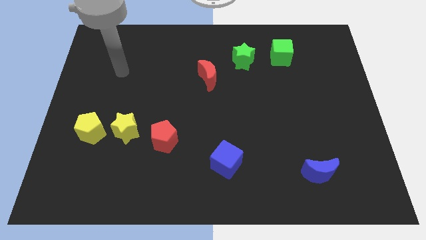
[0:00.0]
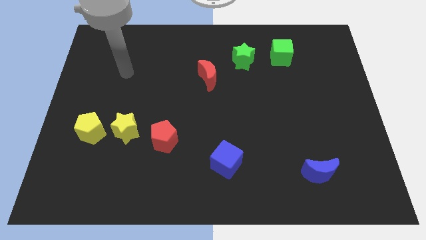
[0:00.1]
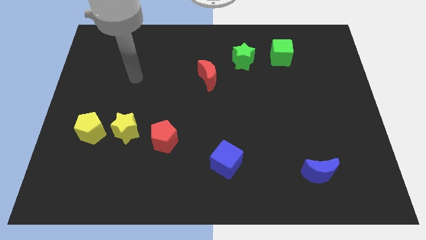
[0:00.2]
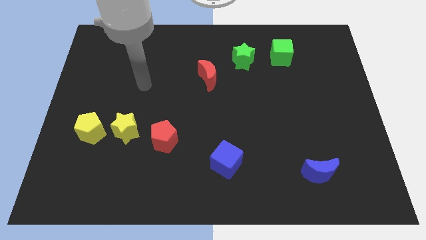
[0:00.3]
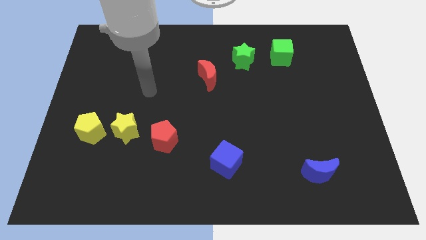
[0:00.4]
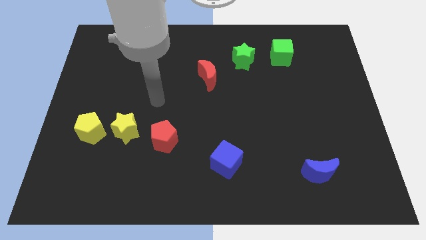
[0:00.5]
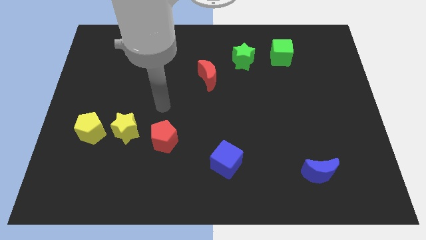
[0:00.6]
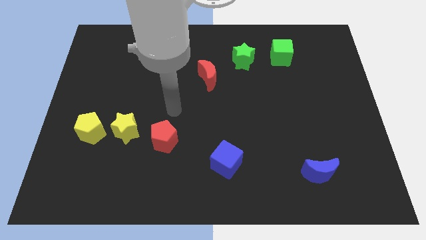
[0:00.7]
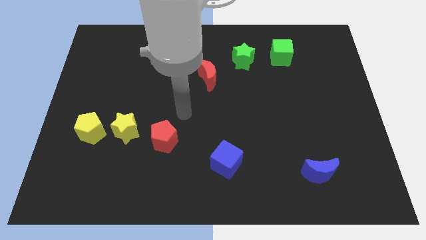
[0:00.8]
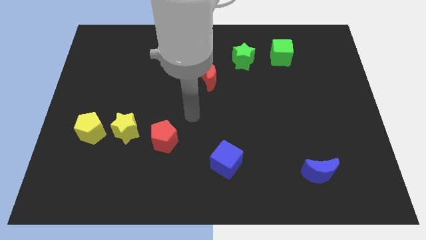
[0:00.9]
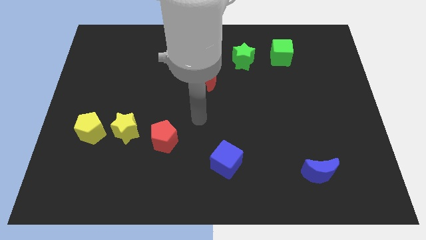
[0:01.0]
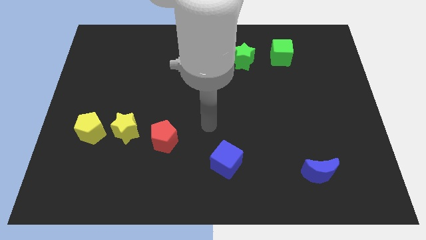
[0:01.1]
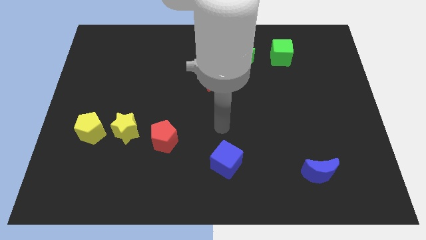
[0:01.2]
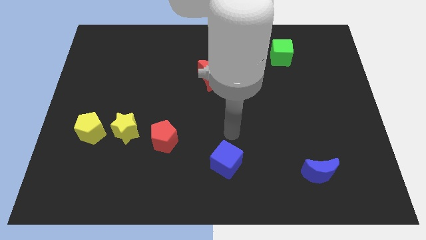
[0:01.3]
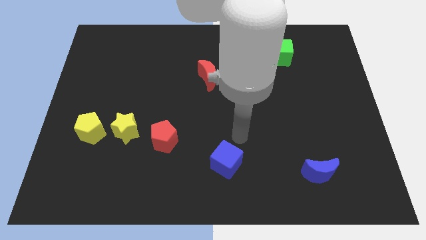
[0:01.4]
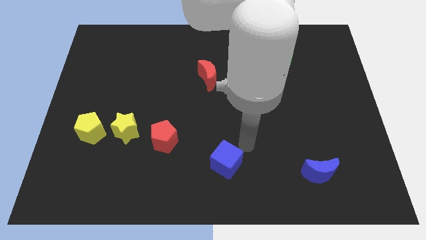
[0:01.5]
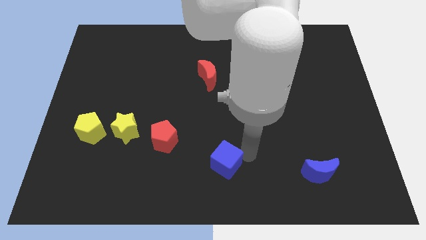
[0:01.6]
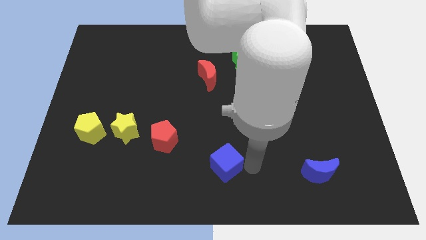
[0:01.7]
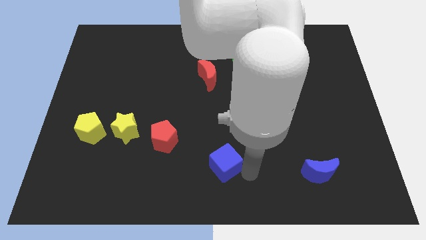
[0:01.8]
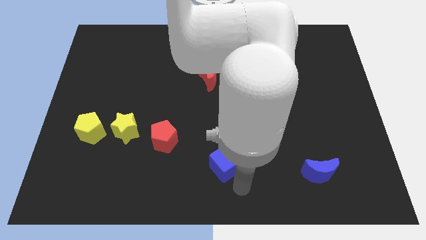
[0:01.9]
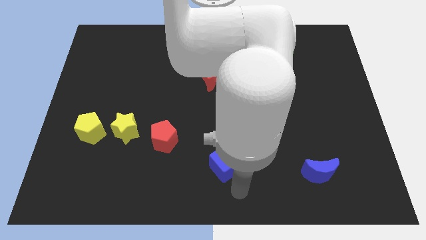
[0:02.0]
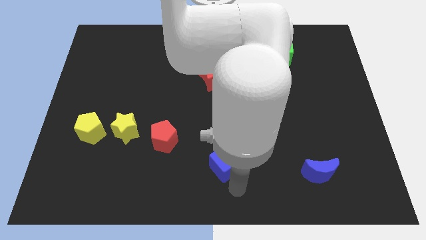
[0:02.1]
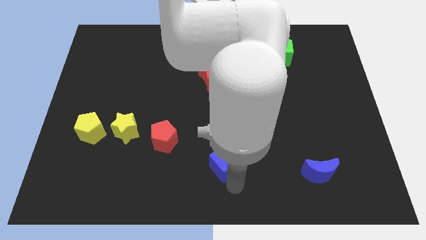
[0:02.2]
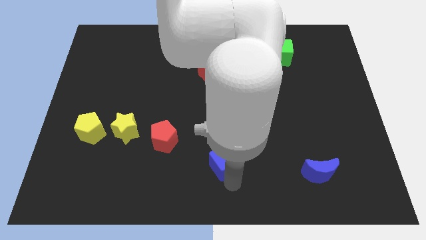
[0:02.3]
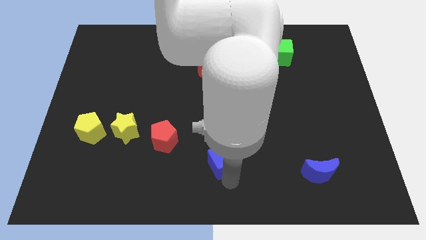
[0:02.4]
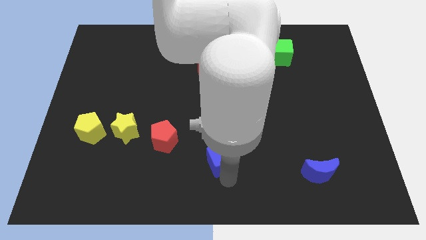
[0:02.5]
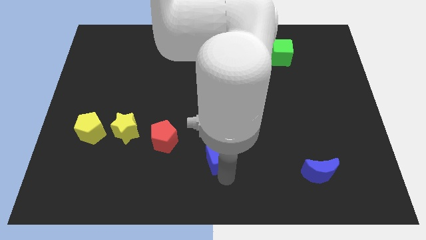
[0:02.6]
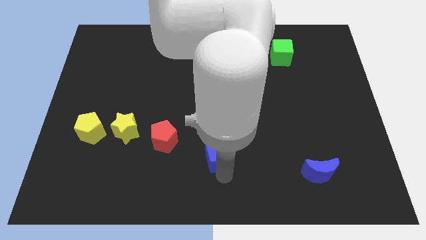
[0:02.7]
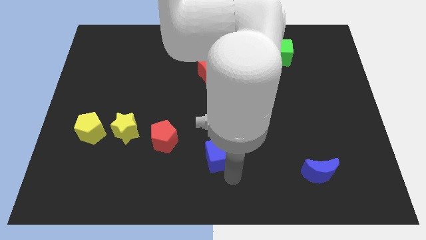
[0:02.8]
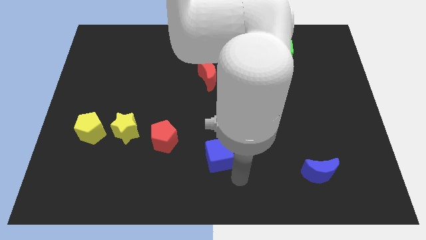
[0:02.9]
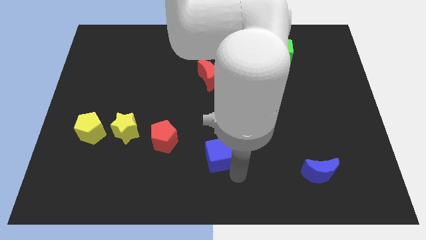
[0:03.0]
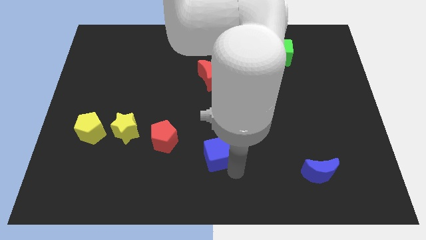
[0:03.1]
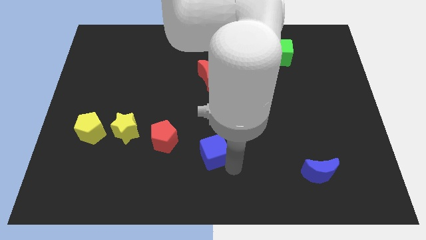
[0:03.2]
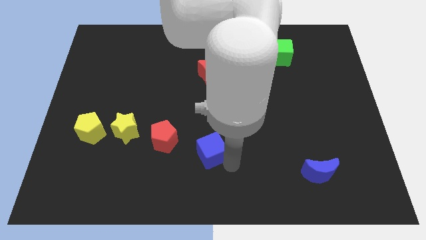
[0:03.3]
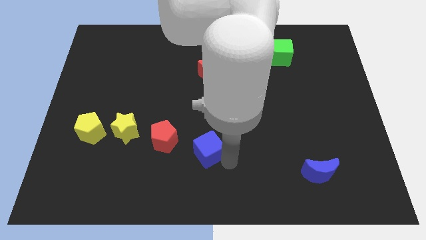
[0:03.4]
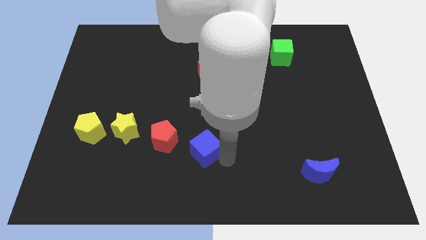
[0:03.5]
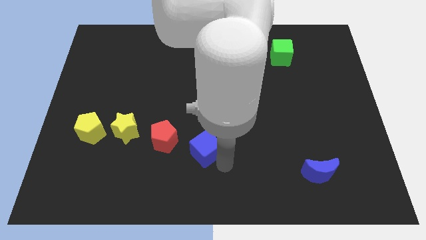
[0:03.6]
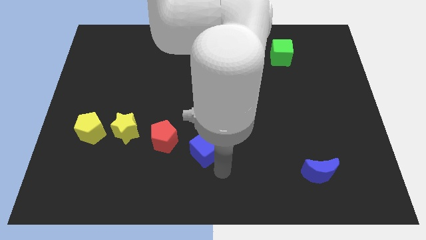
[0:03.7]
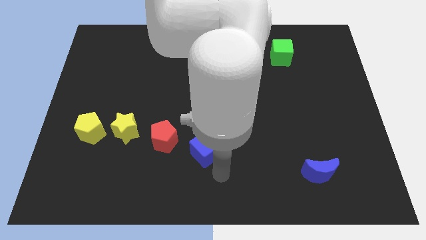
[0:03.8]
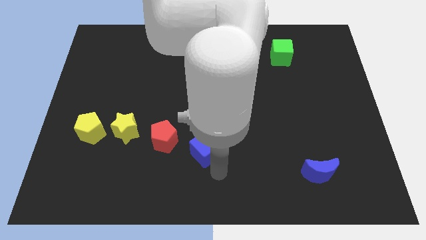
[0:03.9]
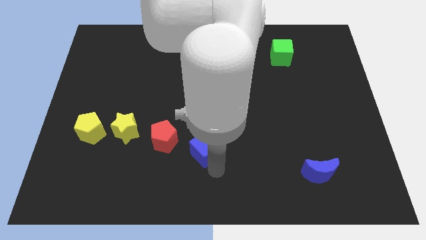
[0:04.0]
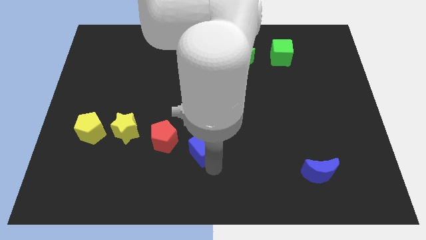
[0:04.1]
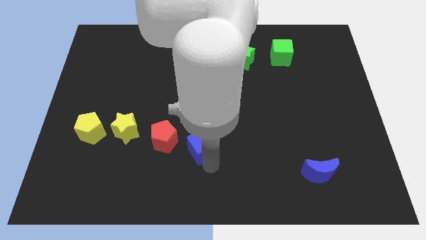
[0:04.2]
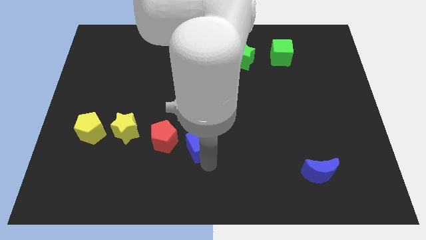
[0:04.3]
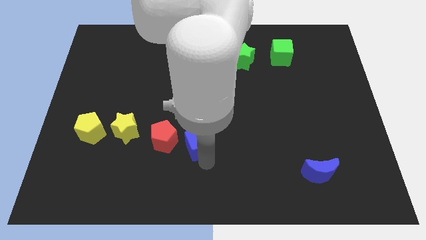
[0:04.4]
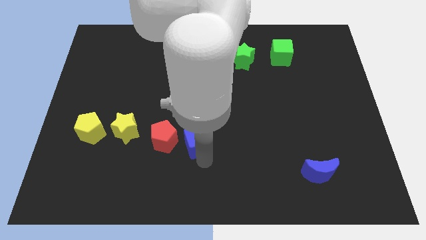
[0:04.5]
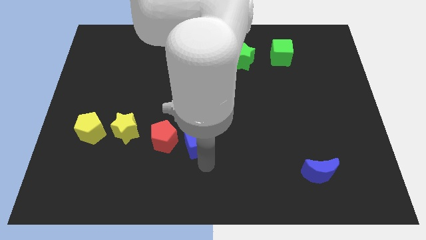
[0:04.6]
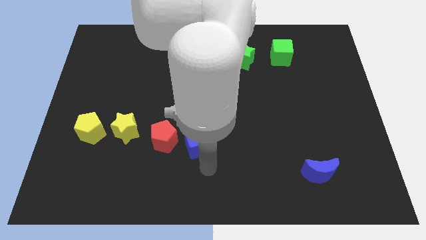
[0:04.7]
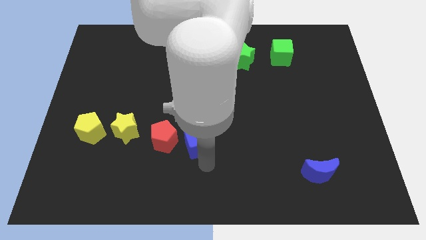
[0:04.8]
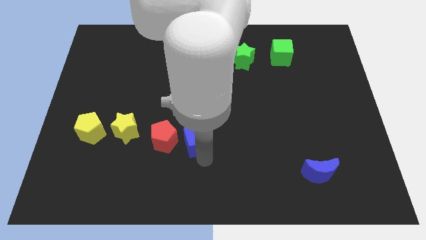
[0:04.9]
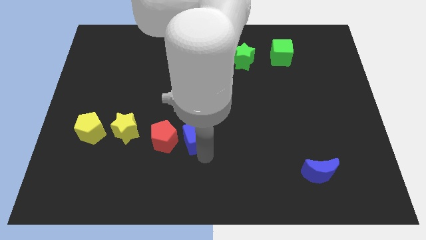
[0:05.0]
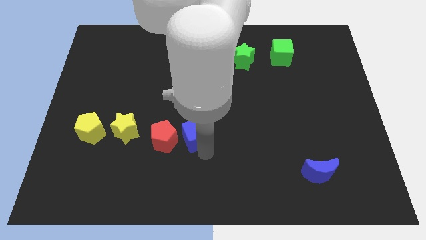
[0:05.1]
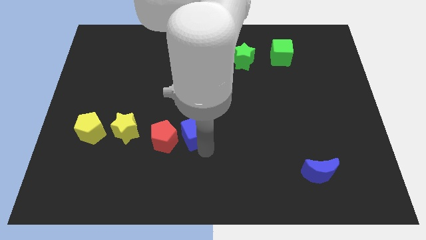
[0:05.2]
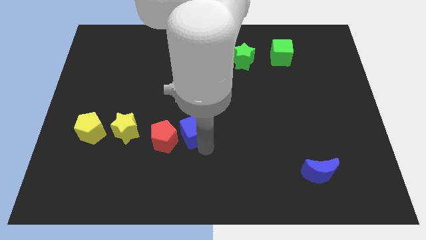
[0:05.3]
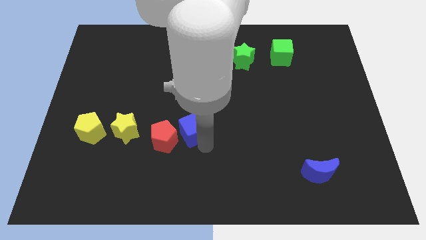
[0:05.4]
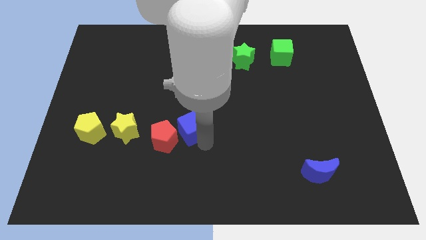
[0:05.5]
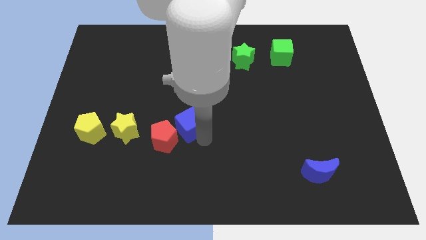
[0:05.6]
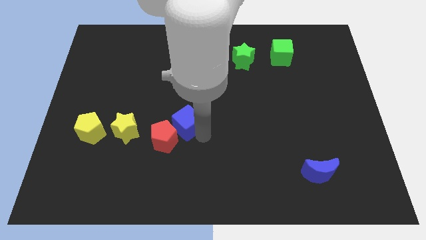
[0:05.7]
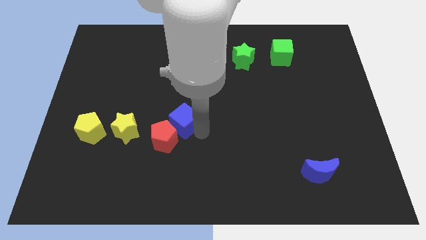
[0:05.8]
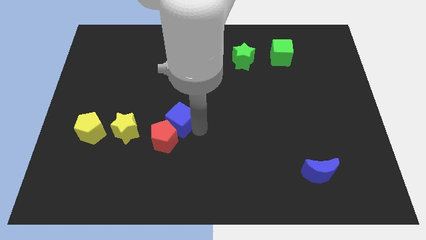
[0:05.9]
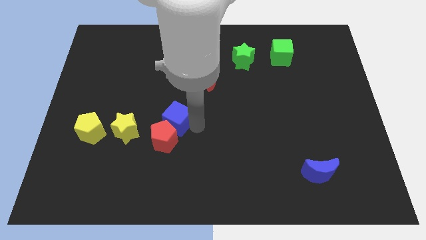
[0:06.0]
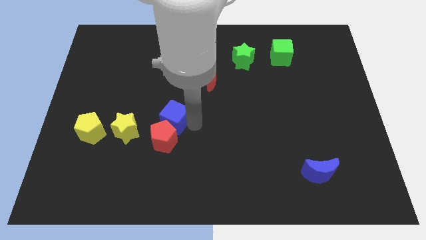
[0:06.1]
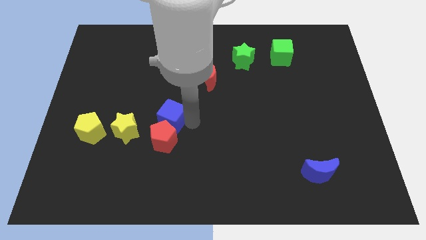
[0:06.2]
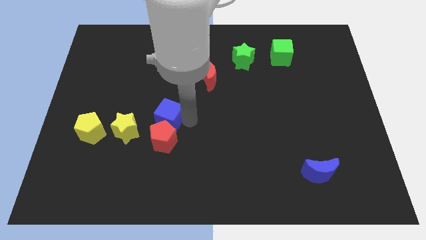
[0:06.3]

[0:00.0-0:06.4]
move the blue cube to the top right side of the yellow star

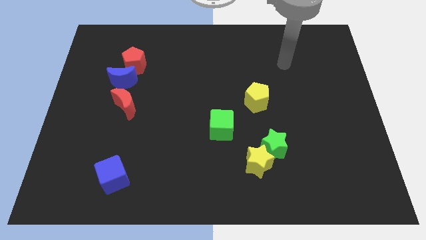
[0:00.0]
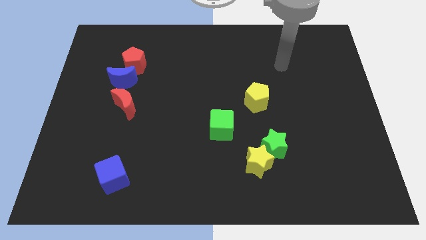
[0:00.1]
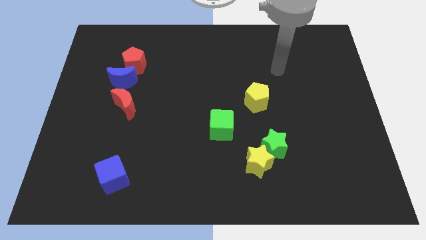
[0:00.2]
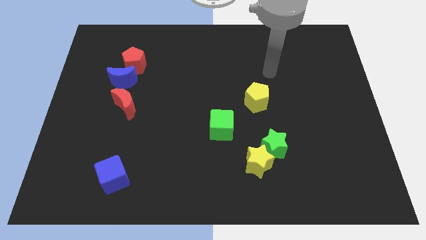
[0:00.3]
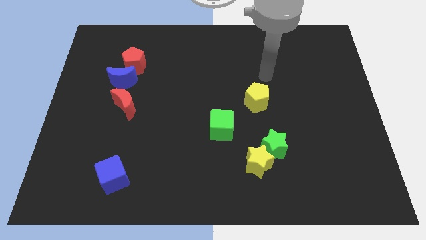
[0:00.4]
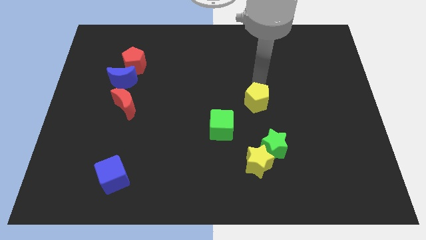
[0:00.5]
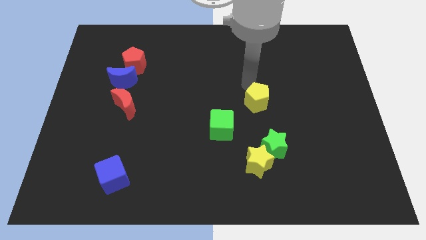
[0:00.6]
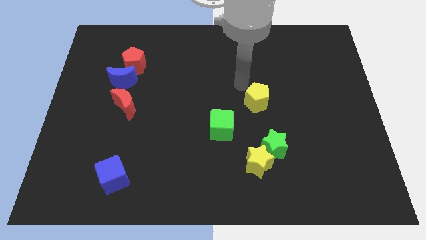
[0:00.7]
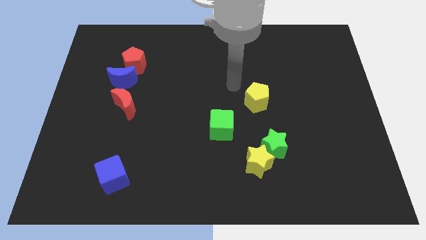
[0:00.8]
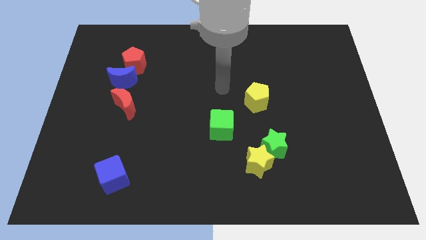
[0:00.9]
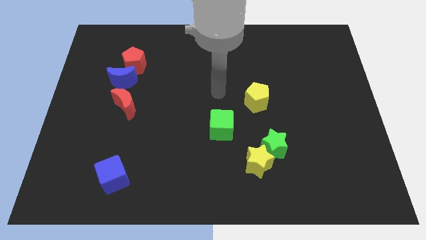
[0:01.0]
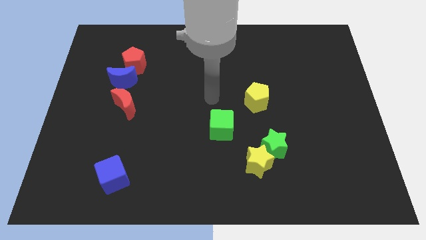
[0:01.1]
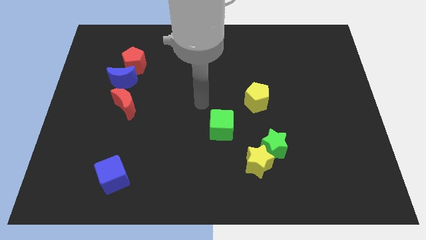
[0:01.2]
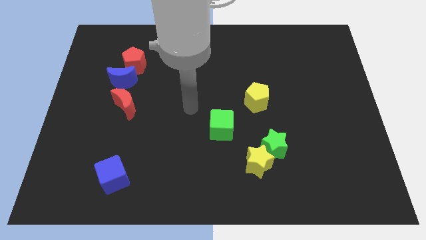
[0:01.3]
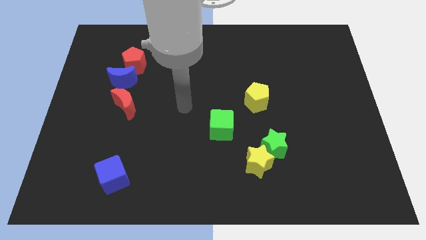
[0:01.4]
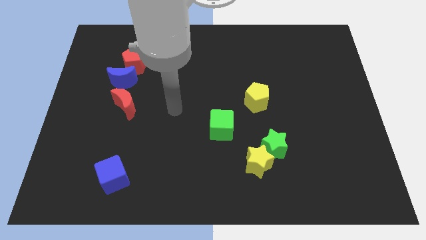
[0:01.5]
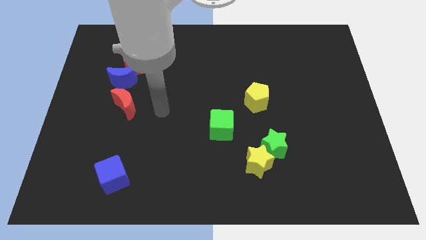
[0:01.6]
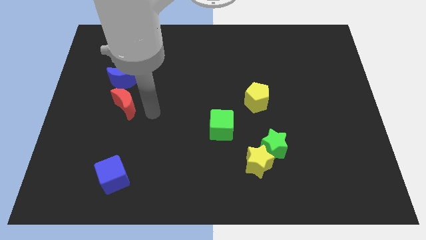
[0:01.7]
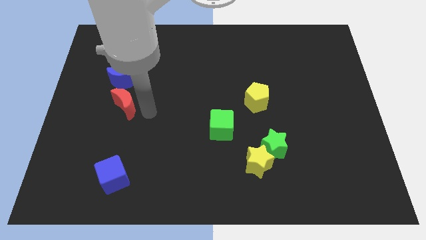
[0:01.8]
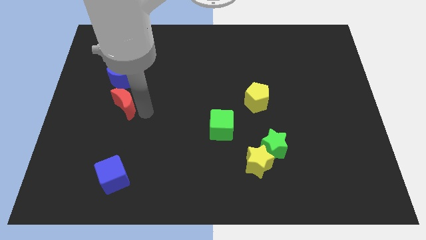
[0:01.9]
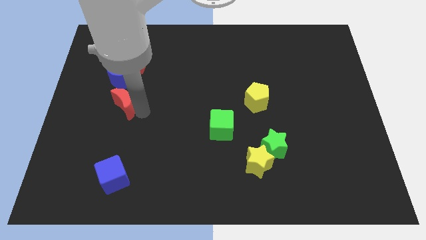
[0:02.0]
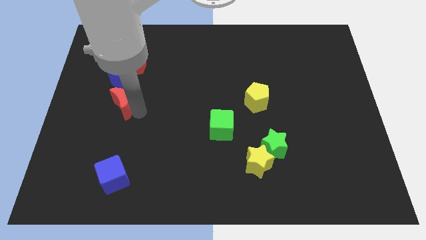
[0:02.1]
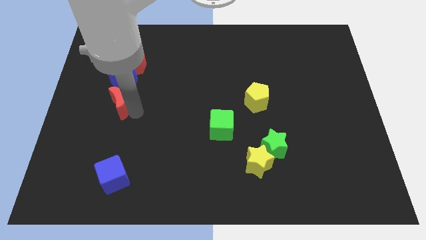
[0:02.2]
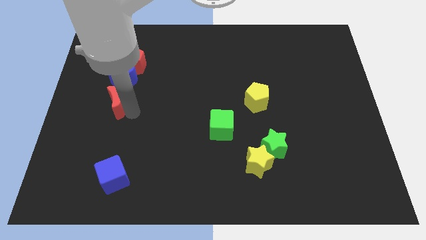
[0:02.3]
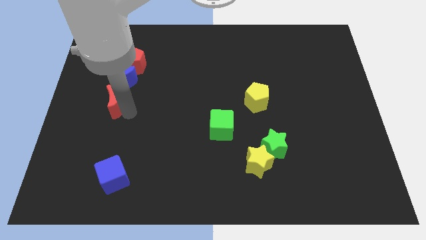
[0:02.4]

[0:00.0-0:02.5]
push the red moon diagonally down and to the left of the blue moon
